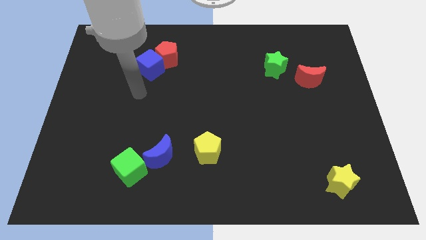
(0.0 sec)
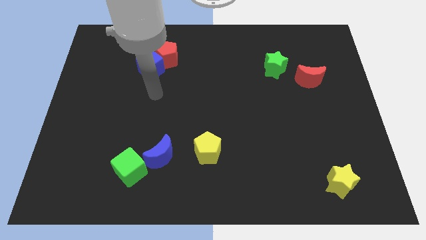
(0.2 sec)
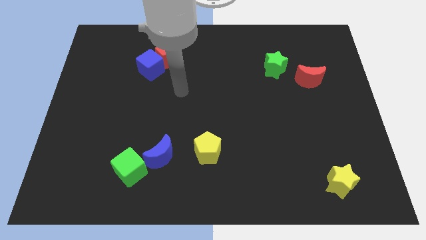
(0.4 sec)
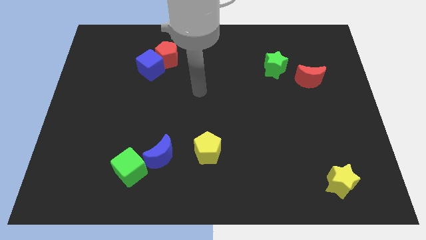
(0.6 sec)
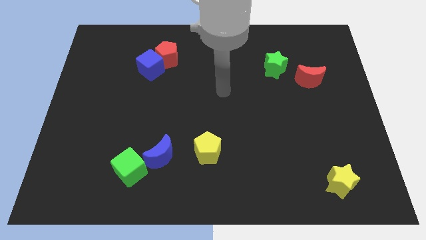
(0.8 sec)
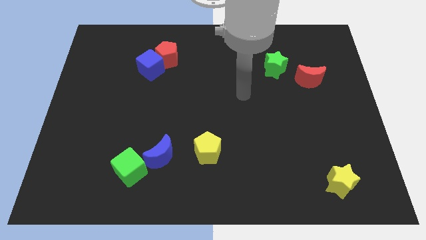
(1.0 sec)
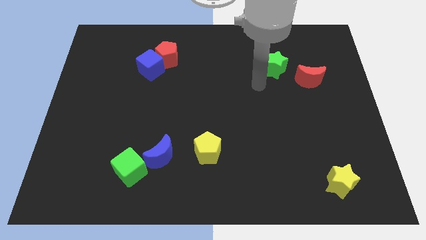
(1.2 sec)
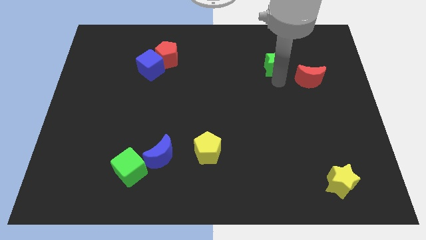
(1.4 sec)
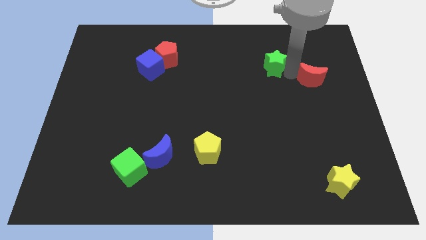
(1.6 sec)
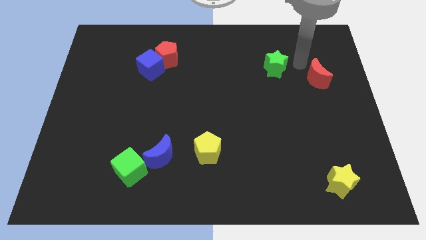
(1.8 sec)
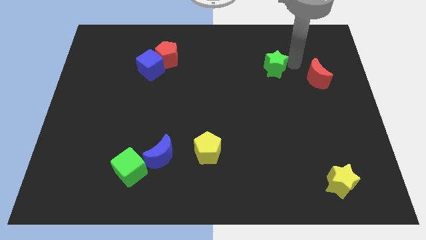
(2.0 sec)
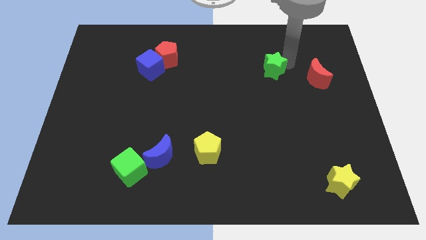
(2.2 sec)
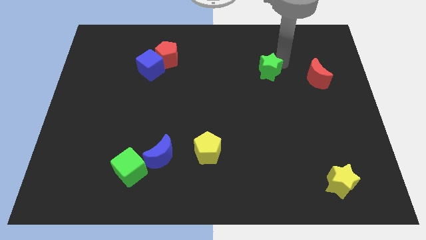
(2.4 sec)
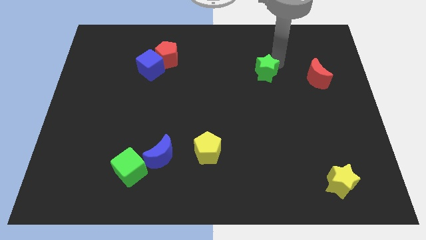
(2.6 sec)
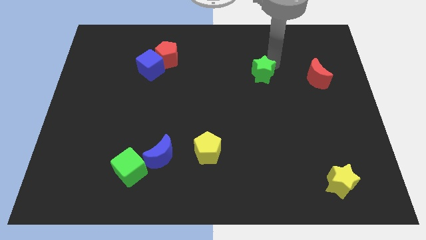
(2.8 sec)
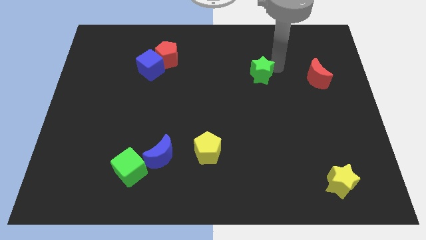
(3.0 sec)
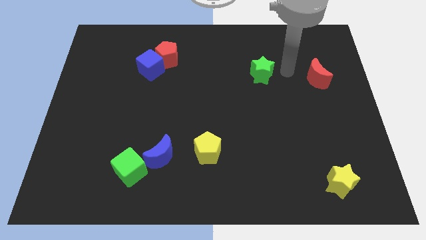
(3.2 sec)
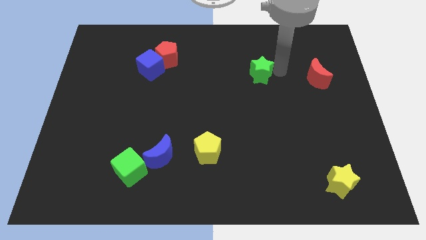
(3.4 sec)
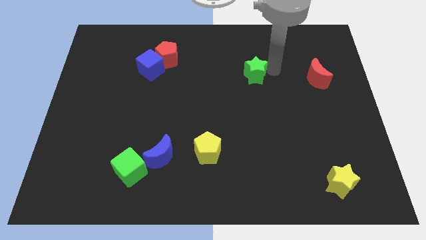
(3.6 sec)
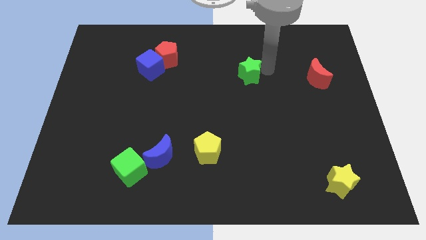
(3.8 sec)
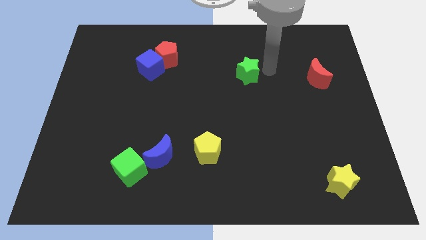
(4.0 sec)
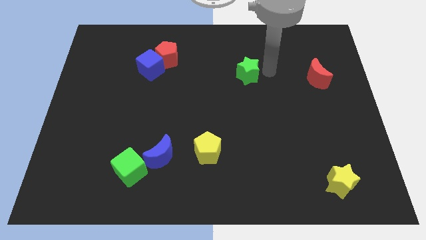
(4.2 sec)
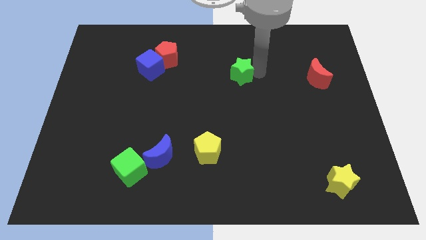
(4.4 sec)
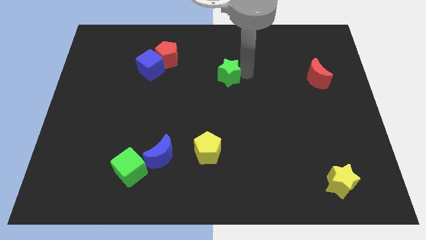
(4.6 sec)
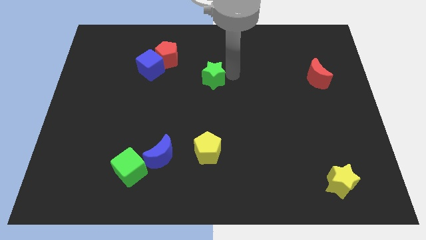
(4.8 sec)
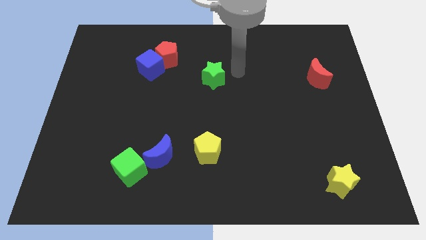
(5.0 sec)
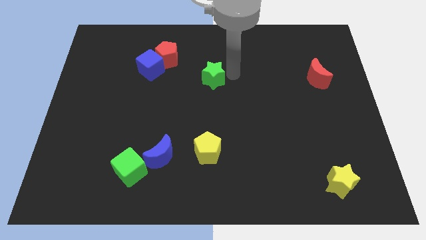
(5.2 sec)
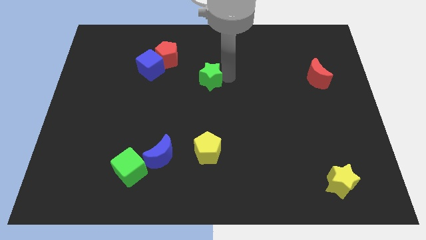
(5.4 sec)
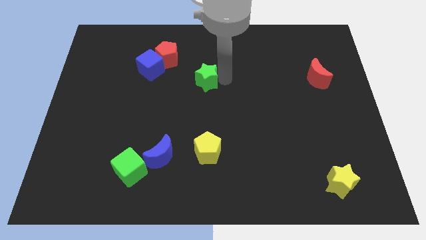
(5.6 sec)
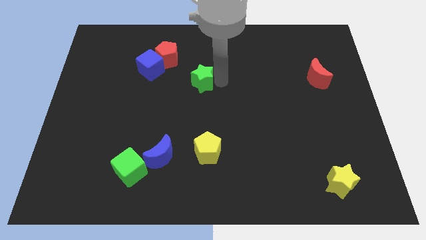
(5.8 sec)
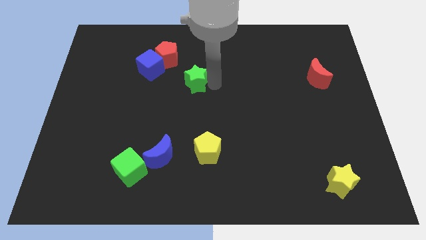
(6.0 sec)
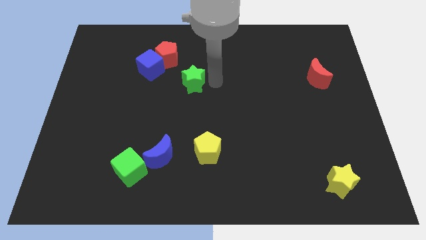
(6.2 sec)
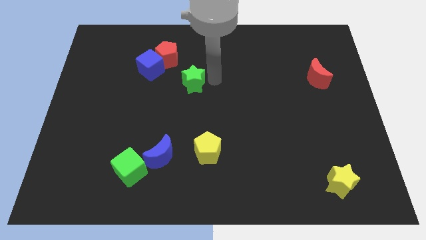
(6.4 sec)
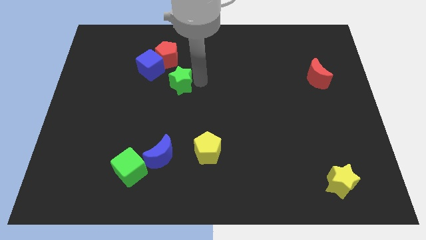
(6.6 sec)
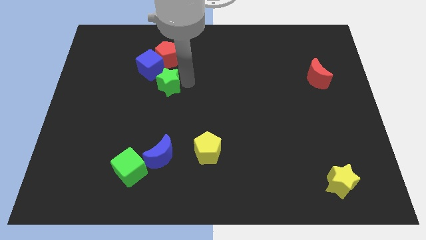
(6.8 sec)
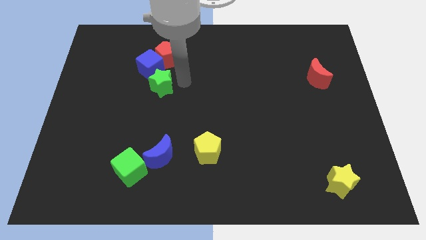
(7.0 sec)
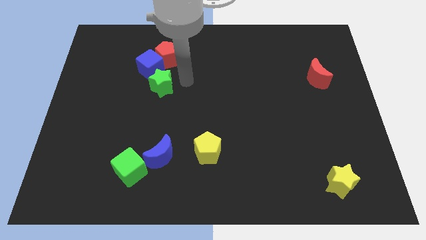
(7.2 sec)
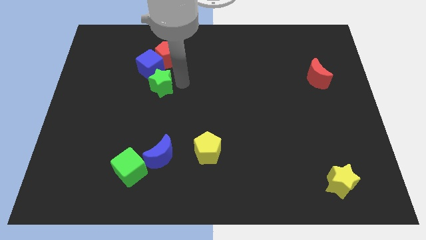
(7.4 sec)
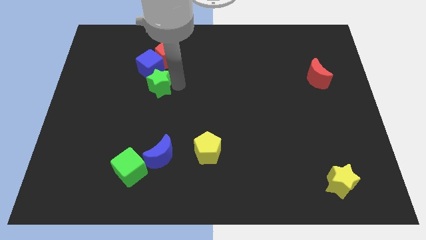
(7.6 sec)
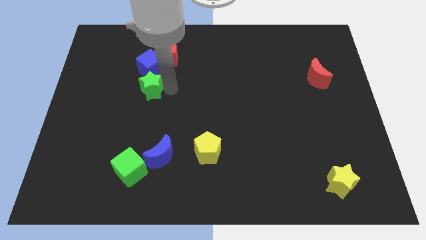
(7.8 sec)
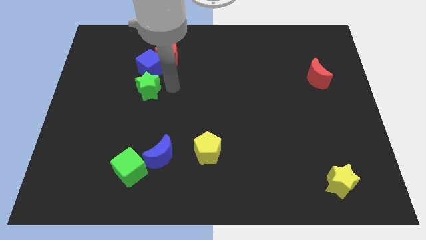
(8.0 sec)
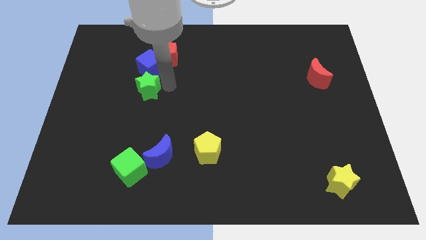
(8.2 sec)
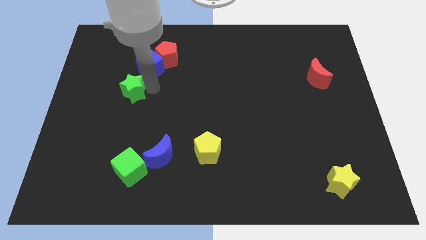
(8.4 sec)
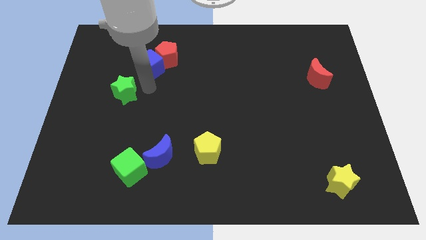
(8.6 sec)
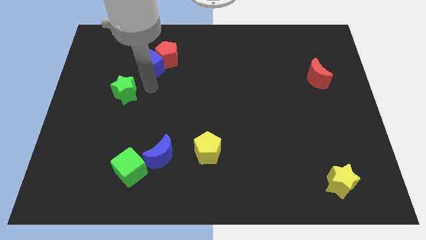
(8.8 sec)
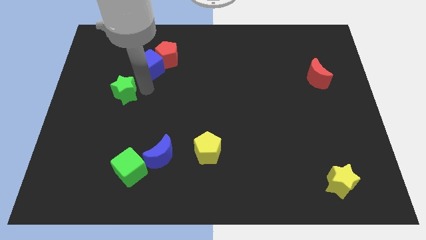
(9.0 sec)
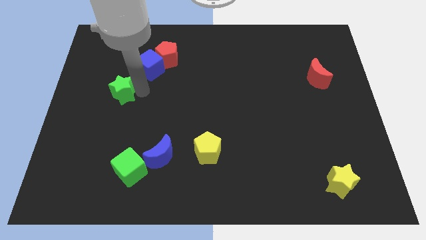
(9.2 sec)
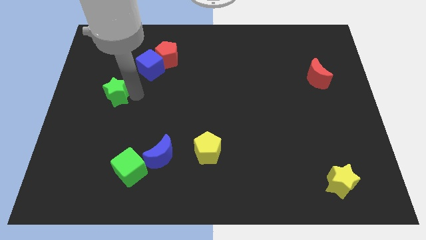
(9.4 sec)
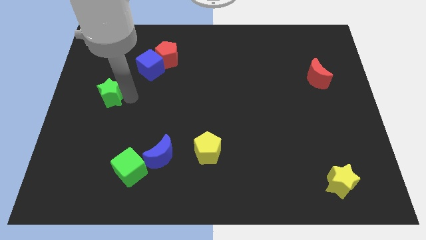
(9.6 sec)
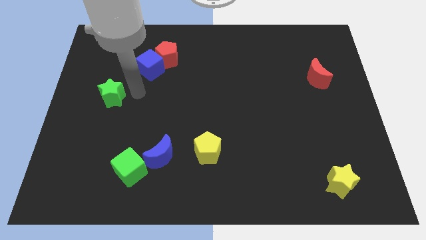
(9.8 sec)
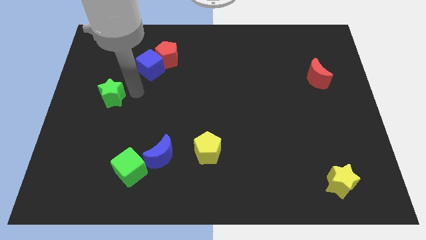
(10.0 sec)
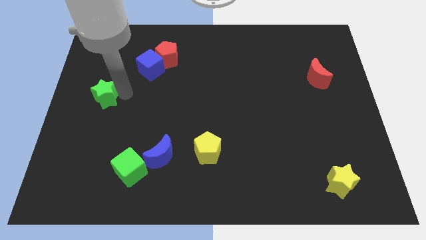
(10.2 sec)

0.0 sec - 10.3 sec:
push the green star to the left side of the board
